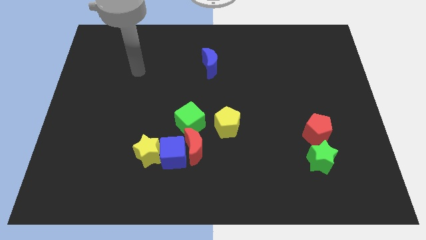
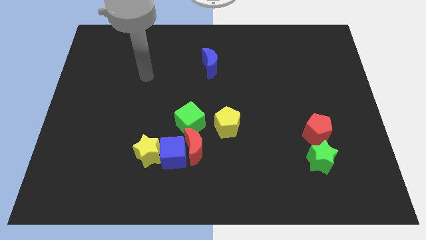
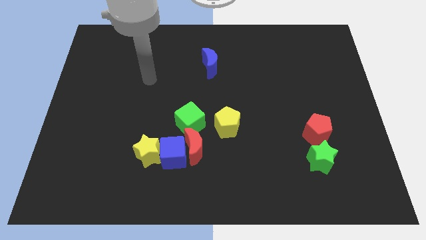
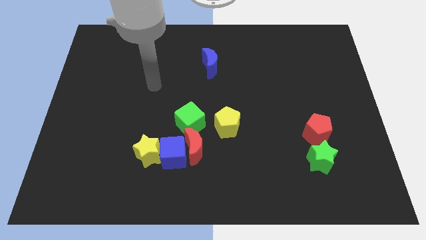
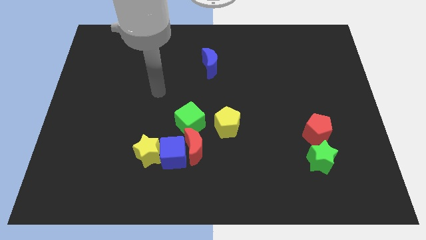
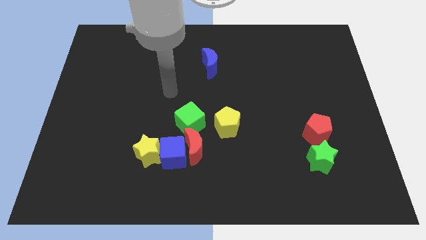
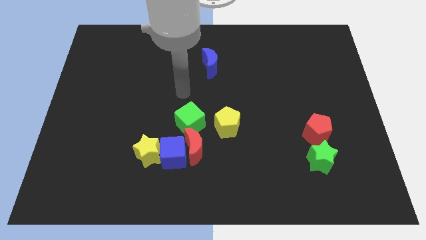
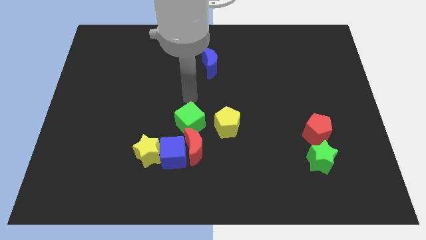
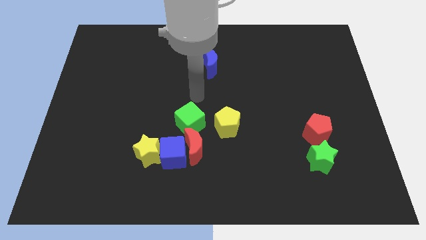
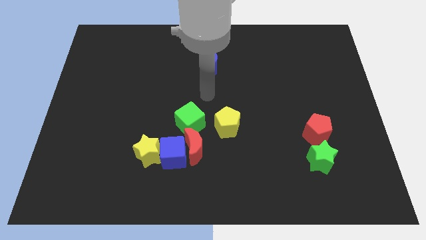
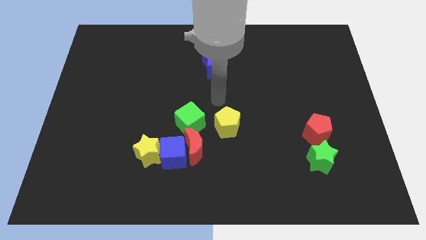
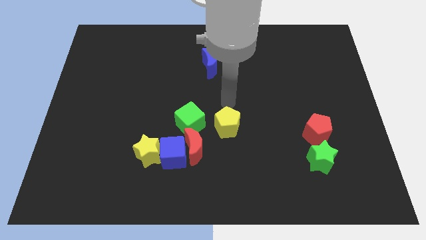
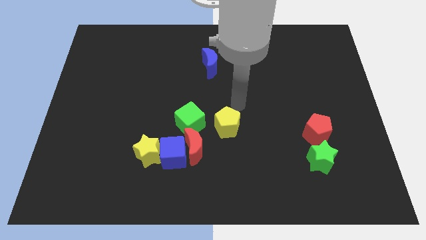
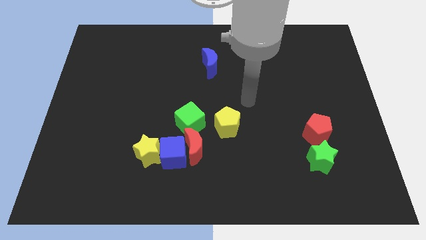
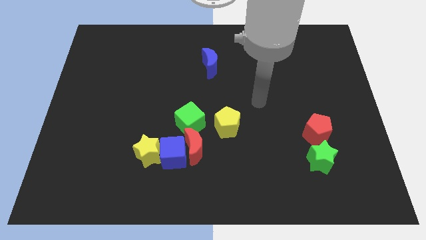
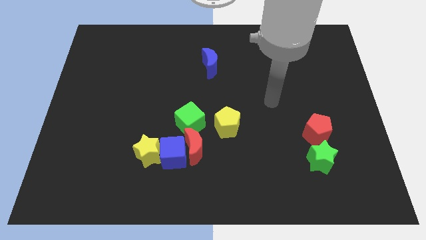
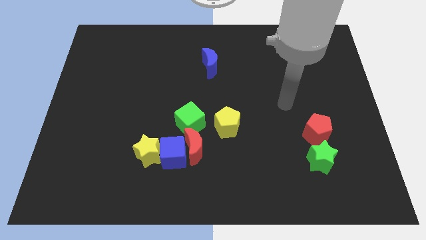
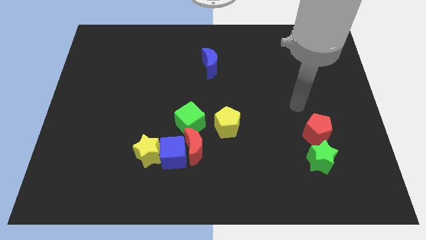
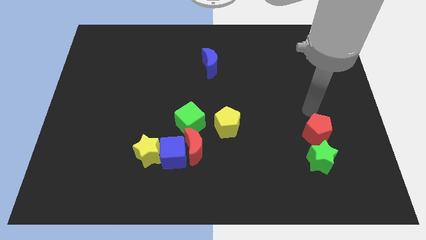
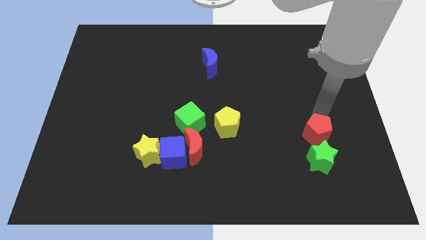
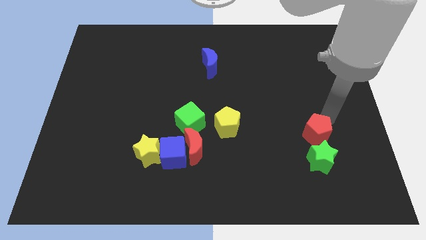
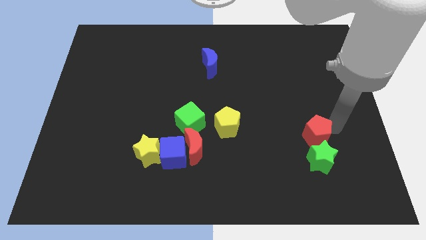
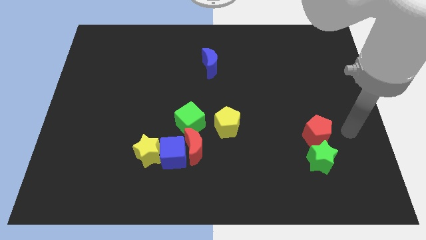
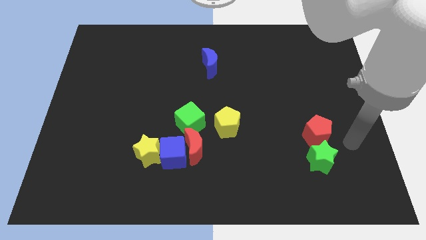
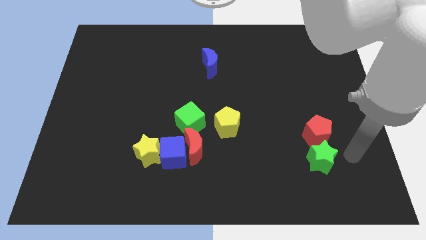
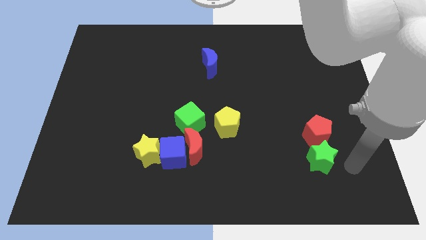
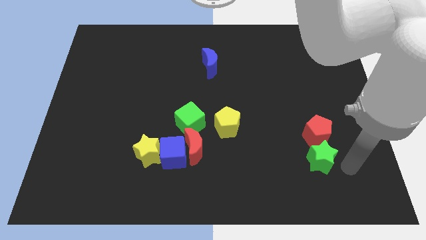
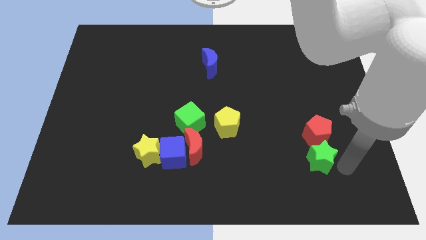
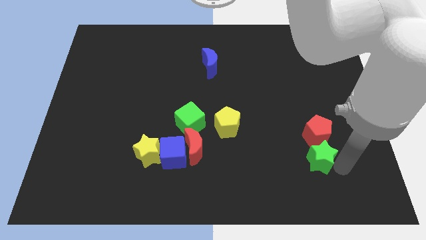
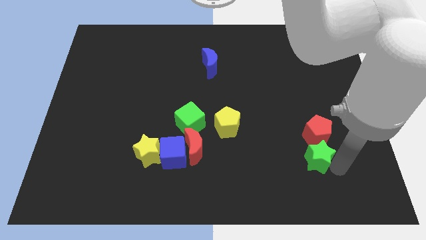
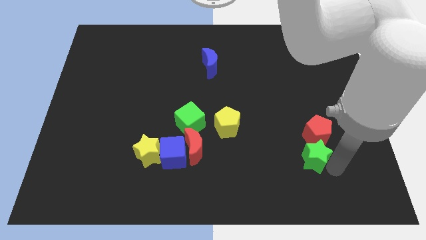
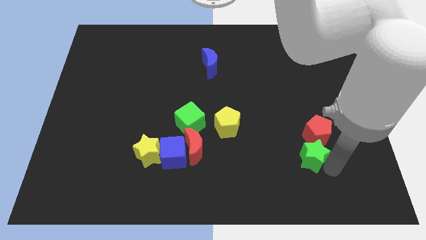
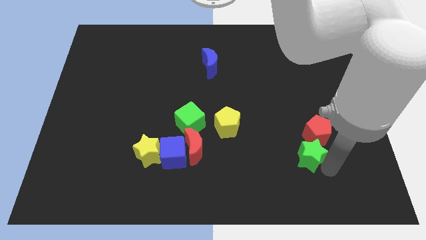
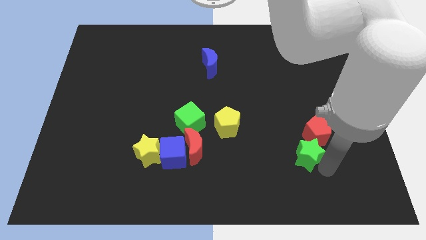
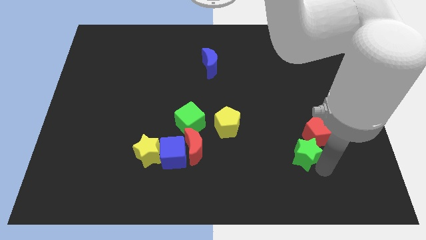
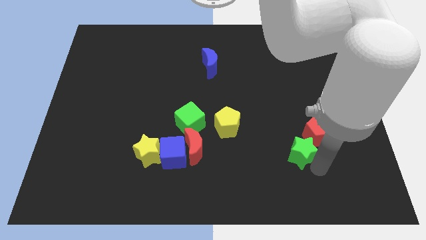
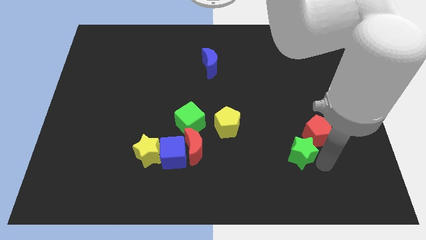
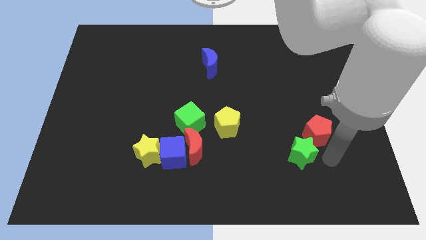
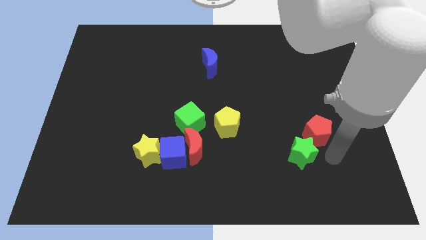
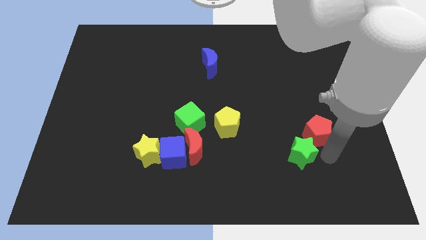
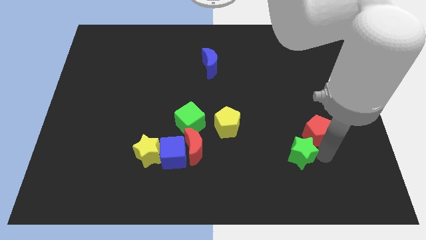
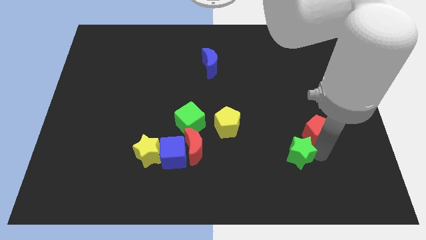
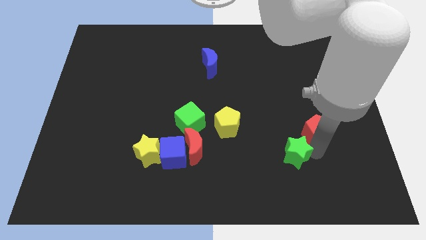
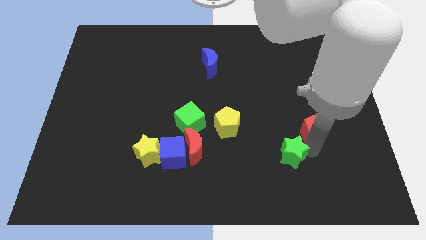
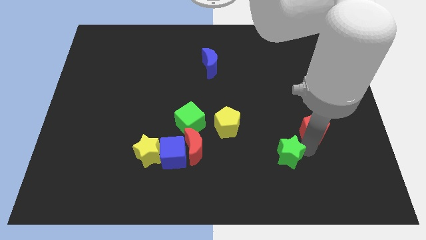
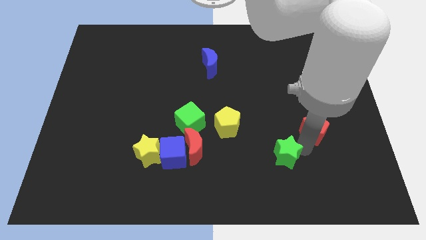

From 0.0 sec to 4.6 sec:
slightly push the green star left

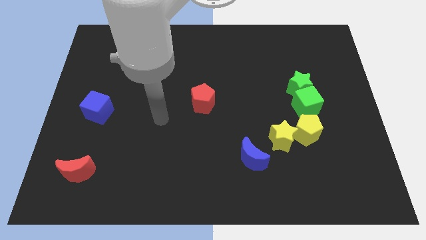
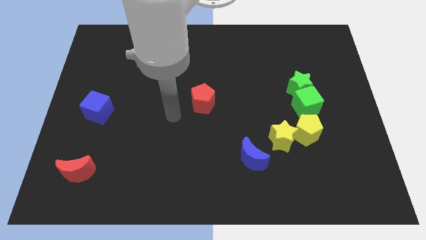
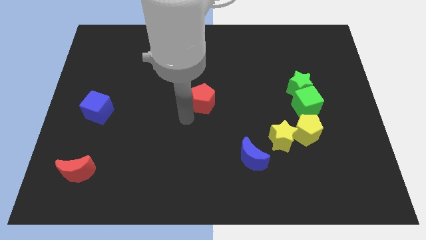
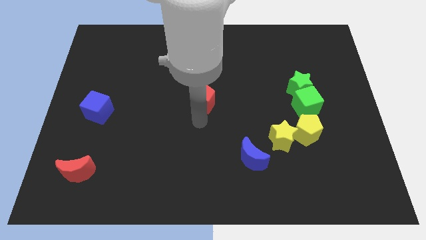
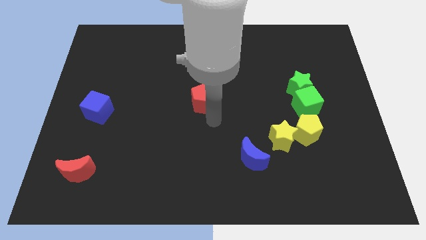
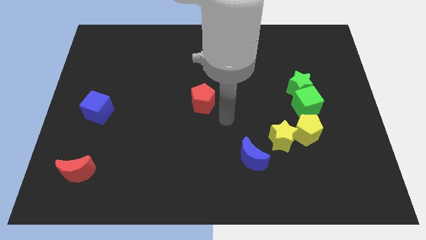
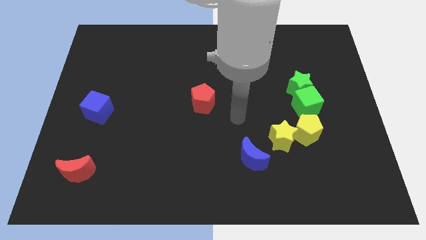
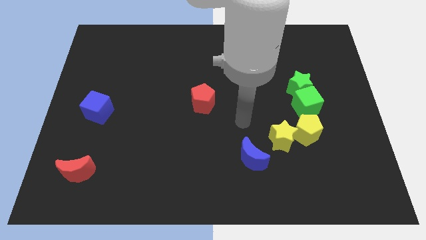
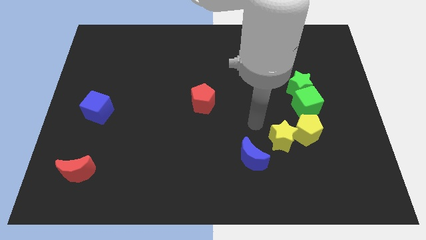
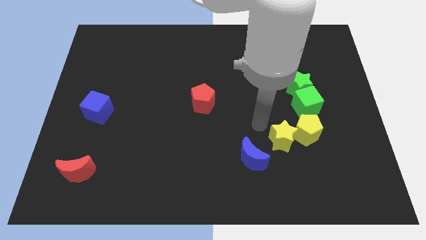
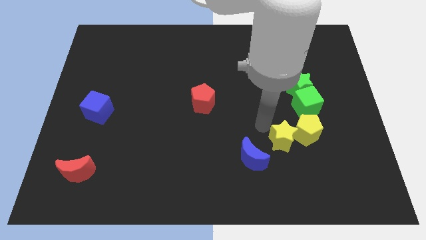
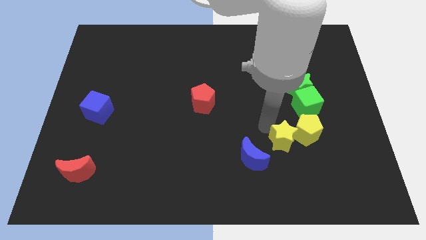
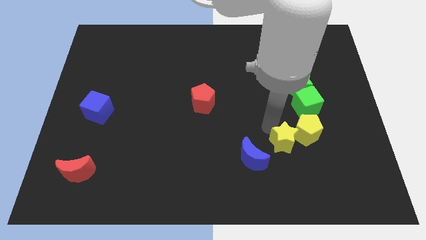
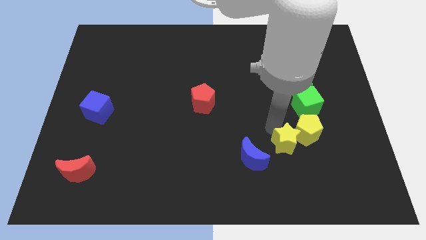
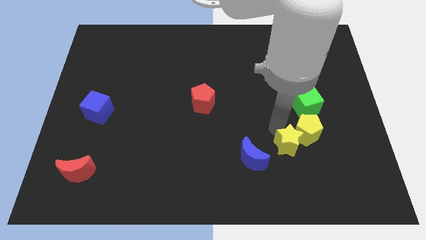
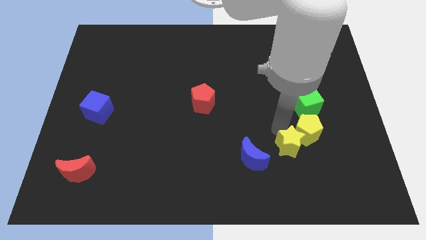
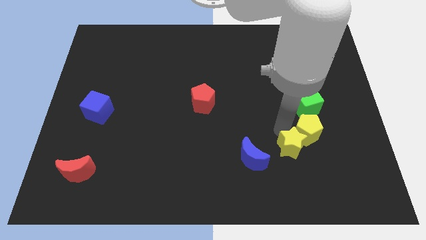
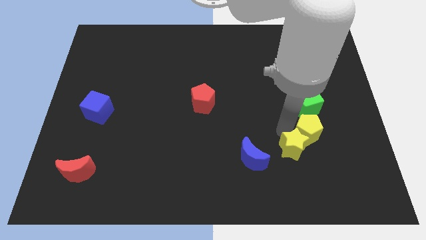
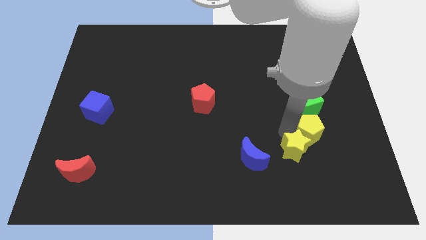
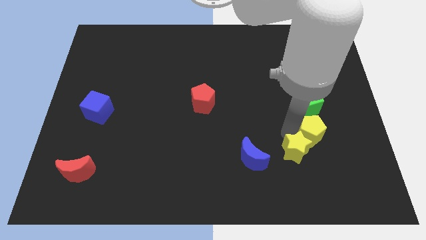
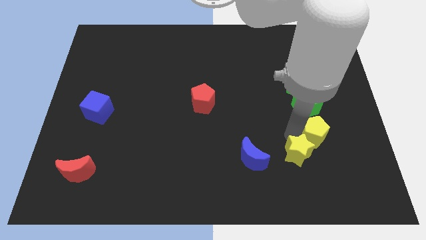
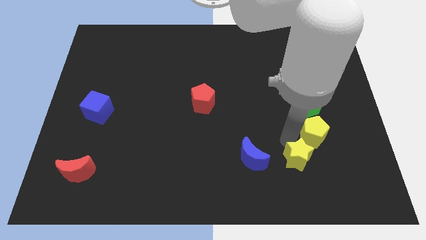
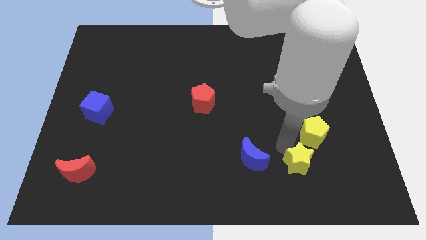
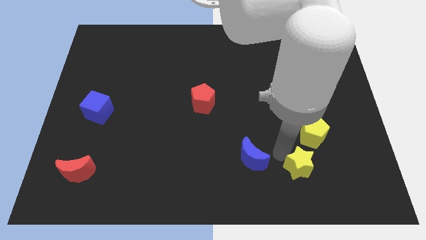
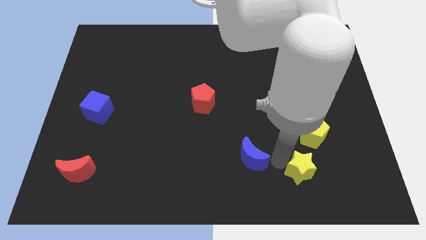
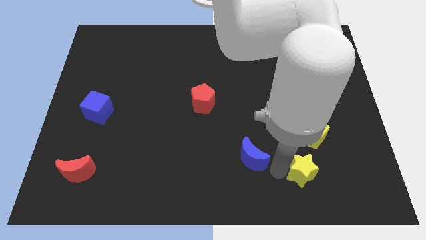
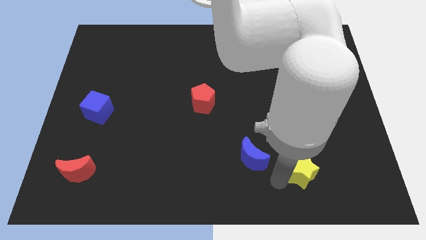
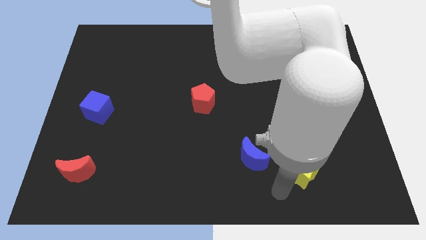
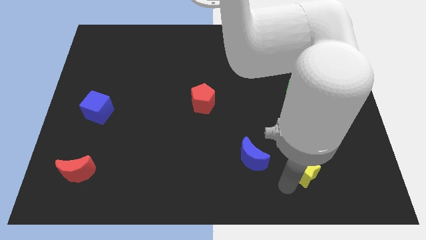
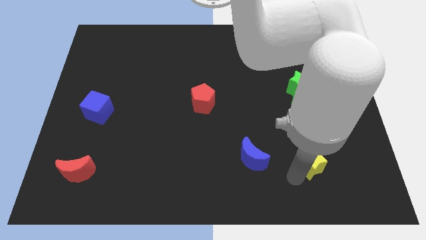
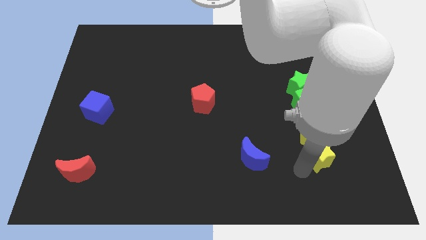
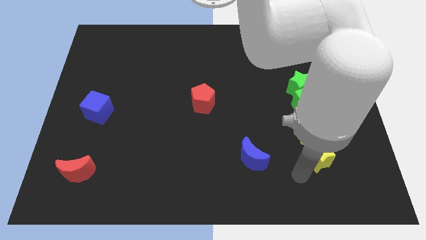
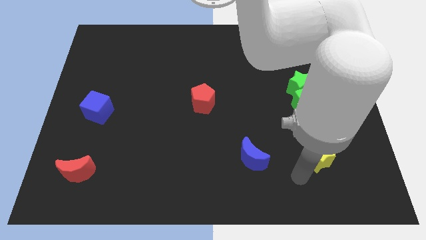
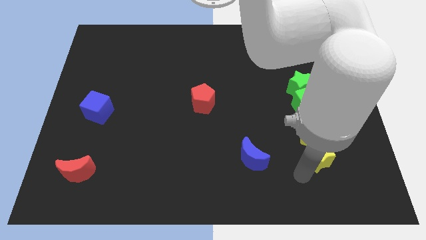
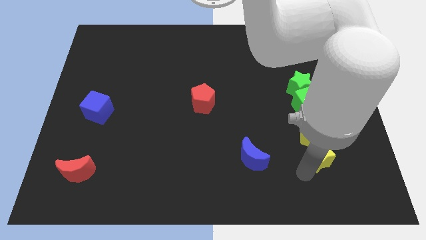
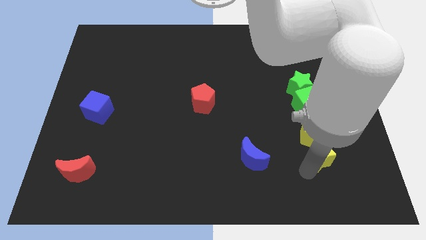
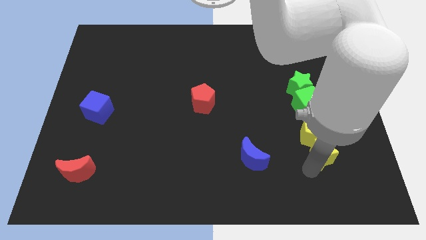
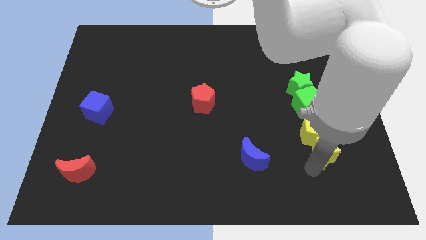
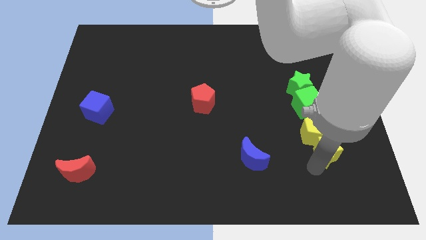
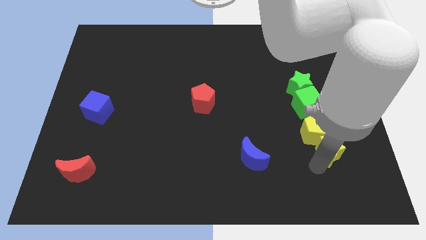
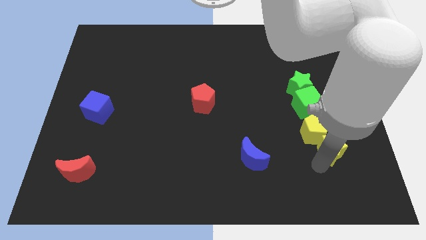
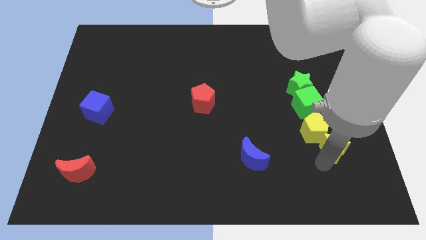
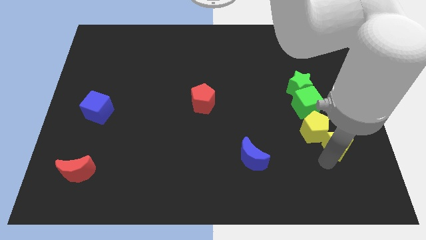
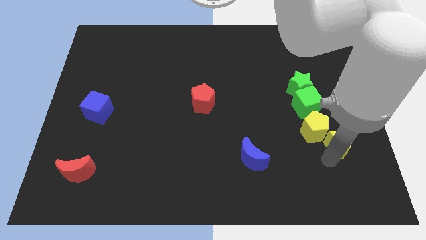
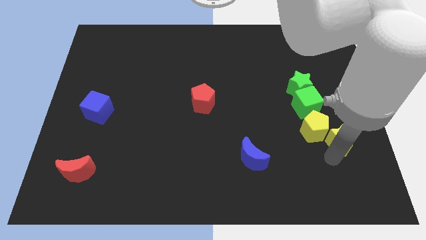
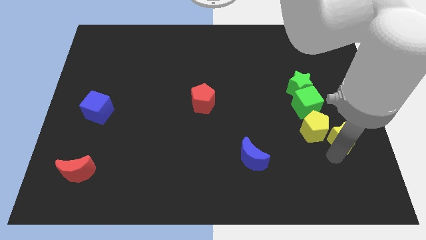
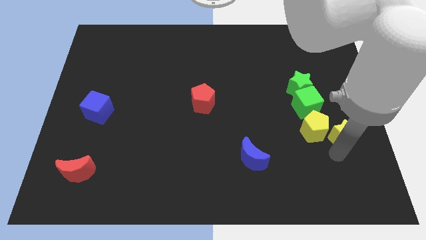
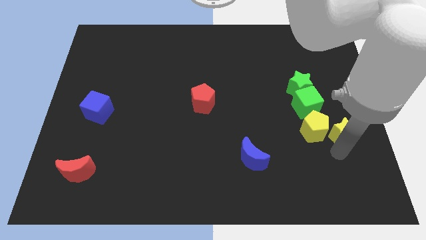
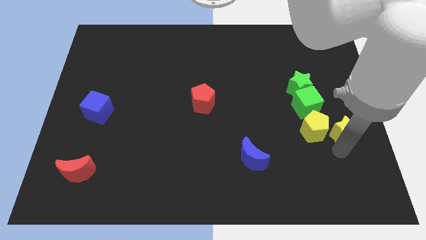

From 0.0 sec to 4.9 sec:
move the yellow star upwards and then right somewhat
